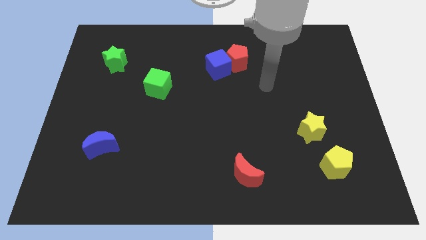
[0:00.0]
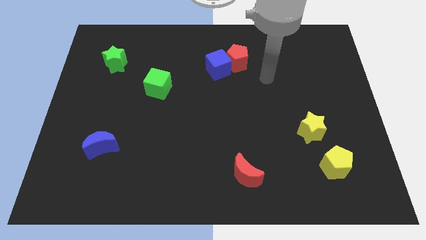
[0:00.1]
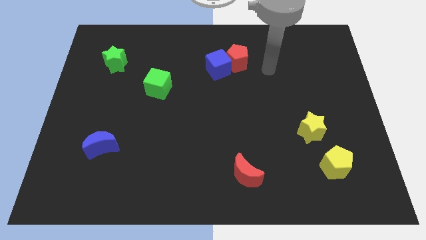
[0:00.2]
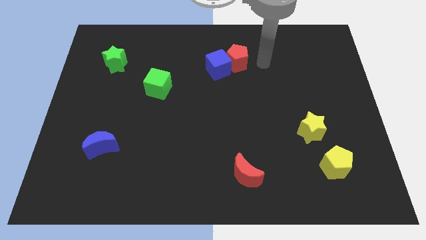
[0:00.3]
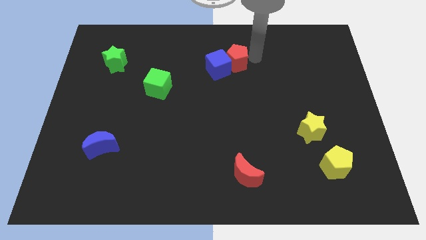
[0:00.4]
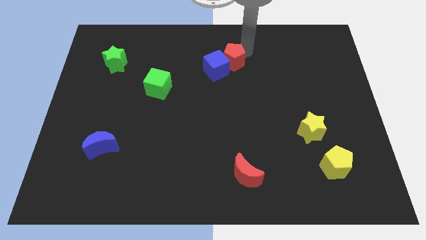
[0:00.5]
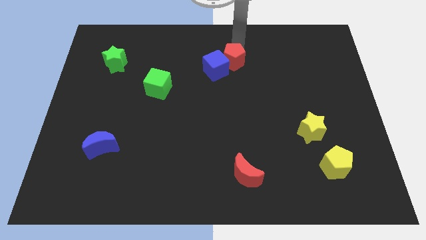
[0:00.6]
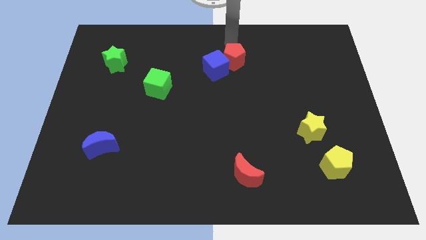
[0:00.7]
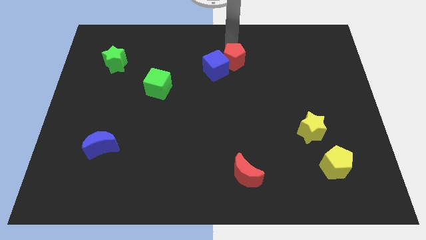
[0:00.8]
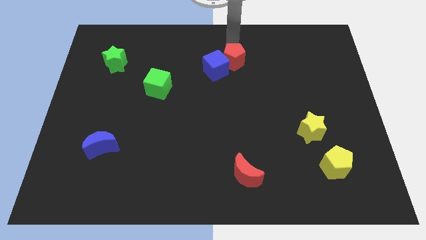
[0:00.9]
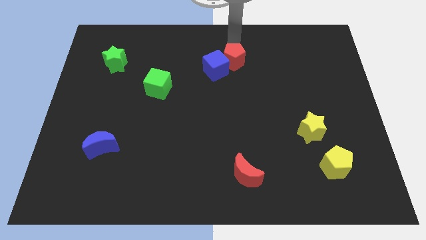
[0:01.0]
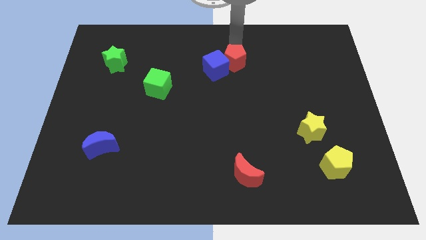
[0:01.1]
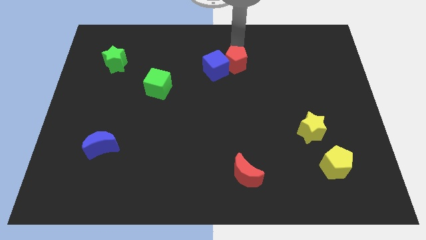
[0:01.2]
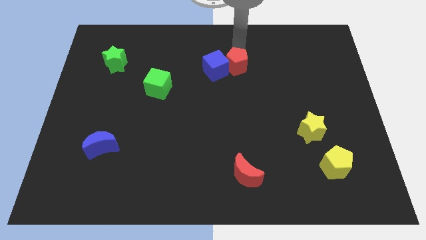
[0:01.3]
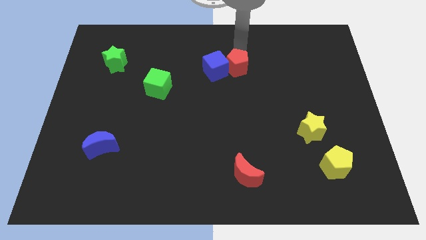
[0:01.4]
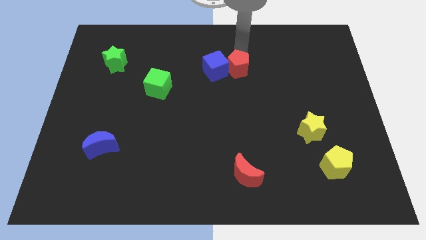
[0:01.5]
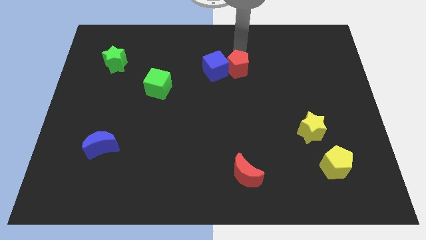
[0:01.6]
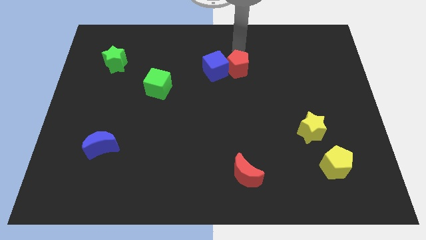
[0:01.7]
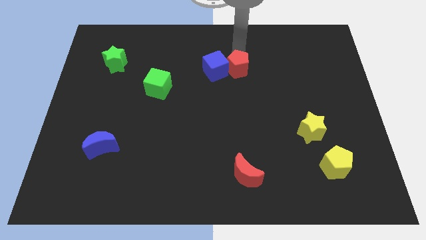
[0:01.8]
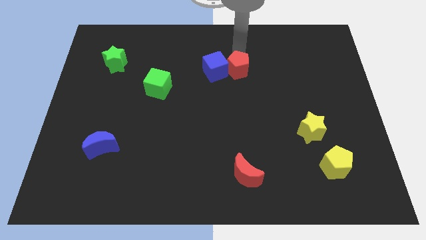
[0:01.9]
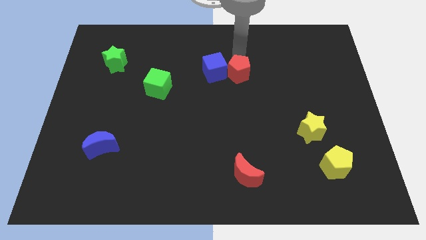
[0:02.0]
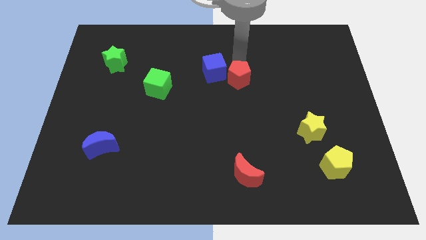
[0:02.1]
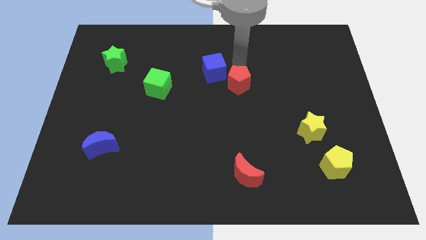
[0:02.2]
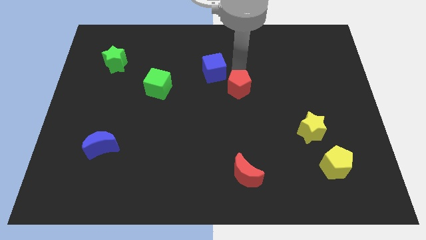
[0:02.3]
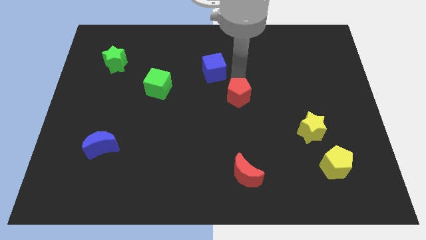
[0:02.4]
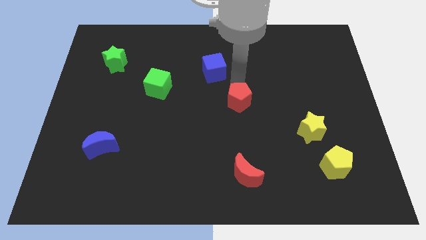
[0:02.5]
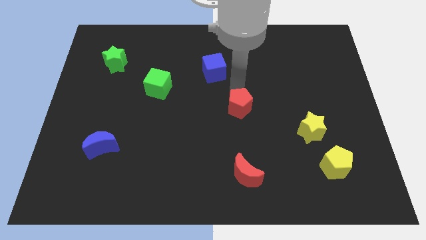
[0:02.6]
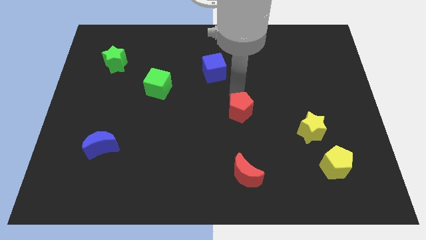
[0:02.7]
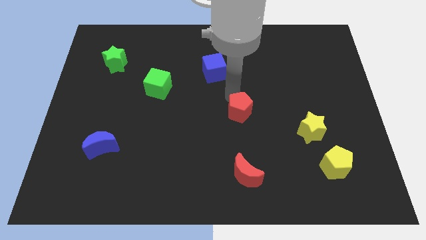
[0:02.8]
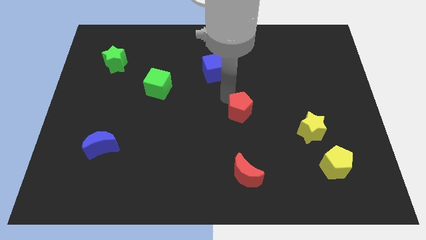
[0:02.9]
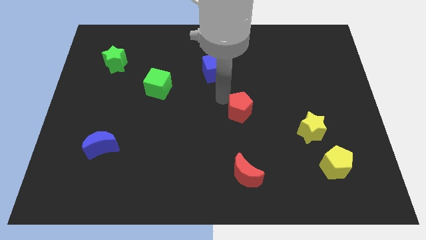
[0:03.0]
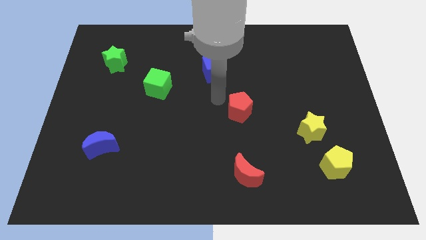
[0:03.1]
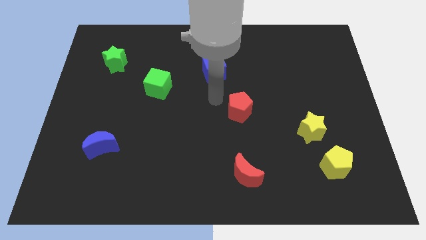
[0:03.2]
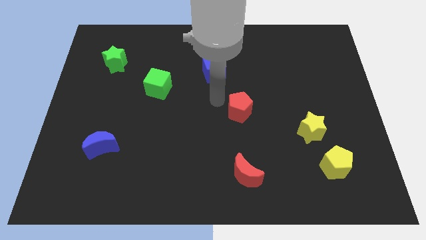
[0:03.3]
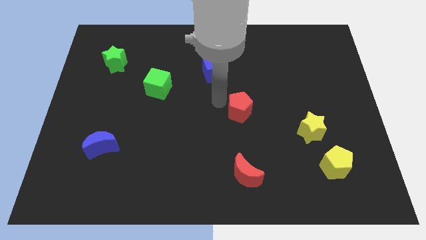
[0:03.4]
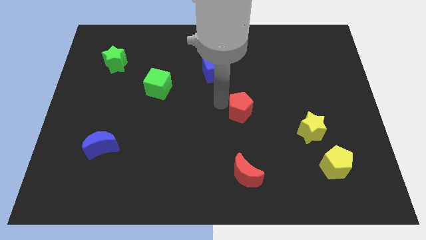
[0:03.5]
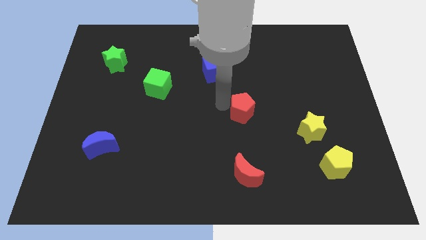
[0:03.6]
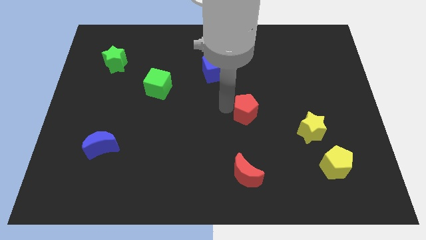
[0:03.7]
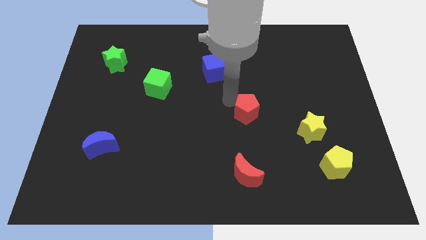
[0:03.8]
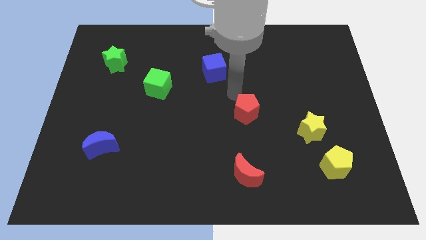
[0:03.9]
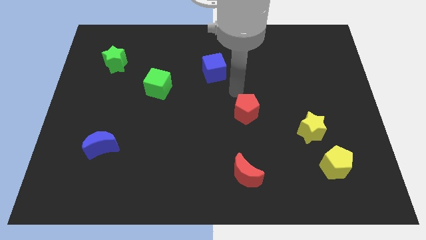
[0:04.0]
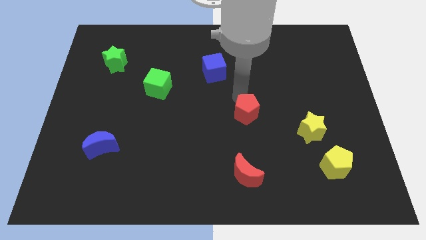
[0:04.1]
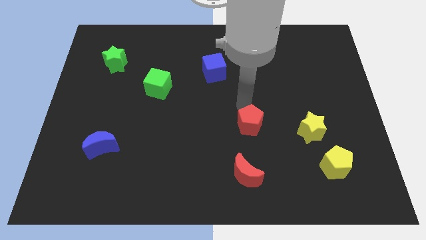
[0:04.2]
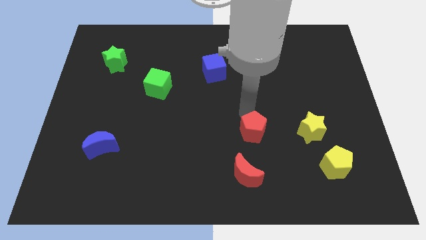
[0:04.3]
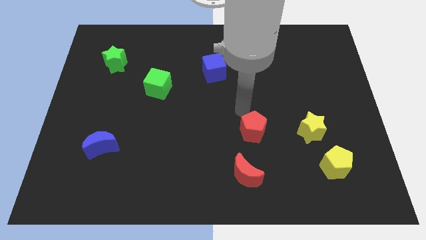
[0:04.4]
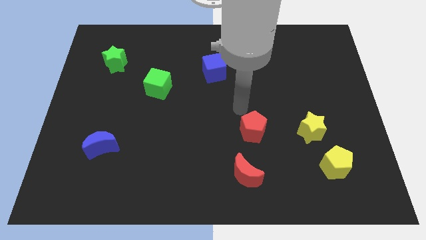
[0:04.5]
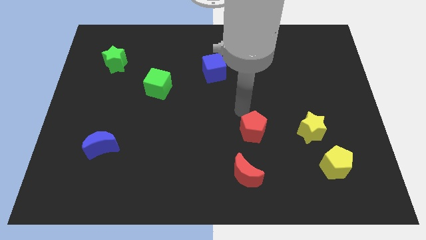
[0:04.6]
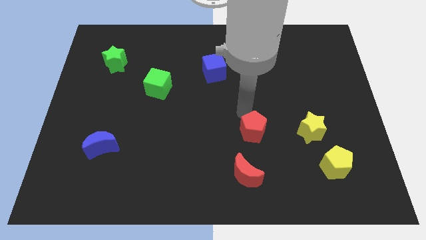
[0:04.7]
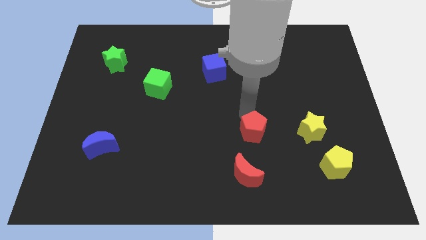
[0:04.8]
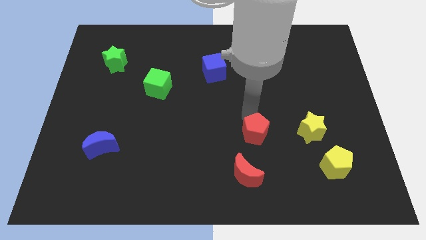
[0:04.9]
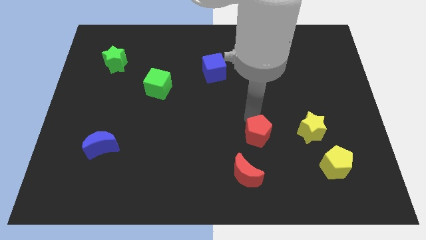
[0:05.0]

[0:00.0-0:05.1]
slide the red pentagon diagonally up and to the right of the red moon

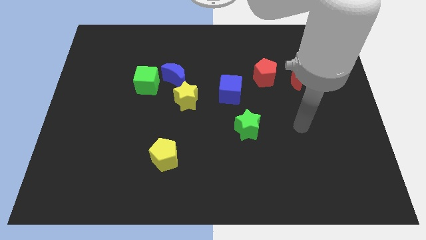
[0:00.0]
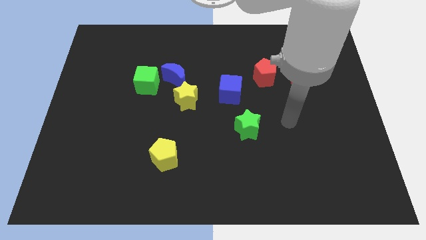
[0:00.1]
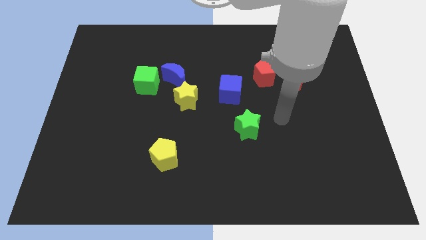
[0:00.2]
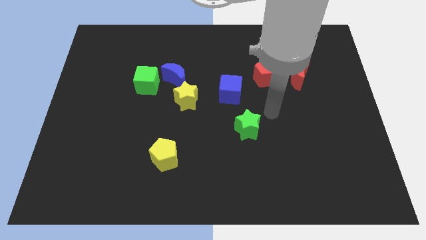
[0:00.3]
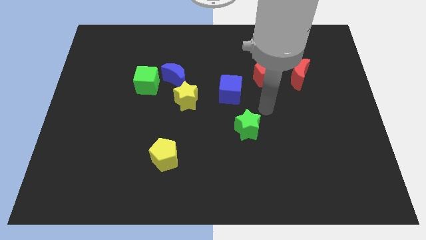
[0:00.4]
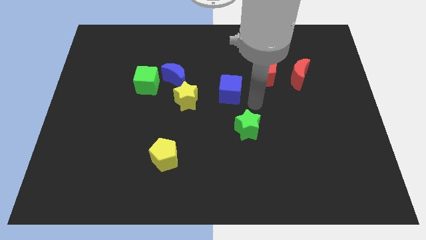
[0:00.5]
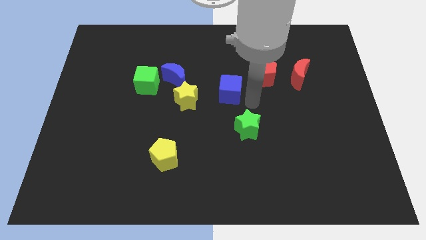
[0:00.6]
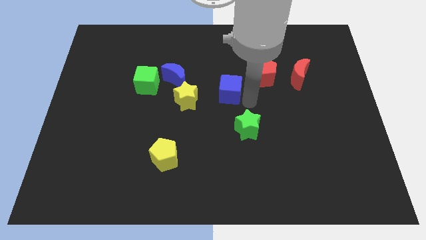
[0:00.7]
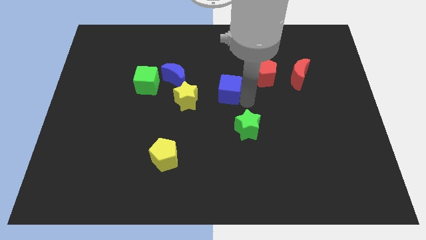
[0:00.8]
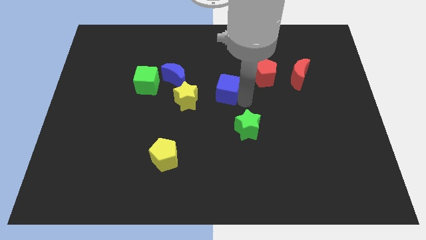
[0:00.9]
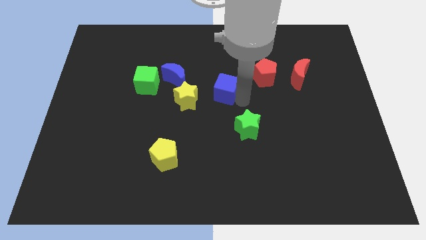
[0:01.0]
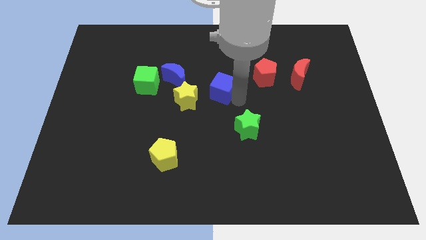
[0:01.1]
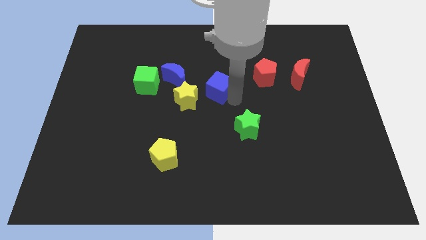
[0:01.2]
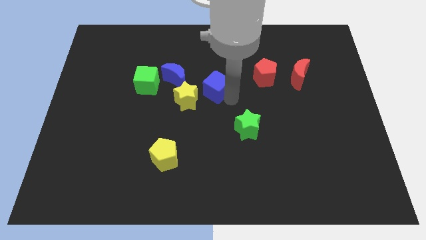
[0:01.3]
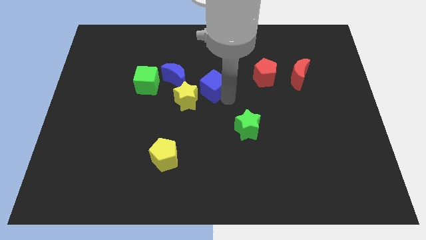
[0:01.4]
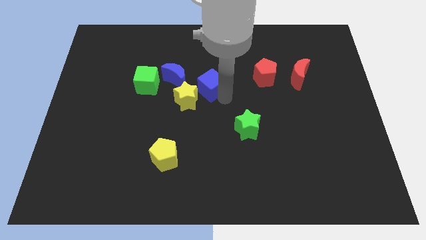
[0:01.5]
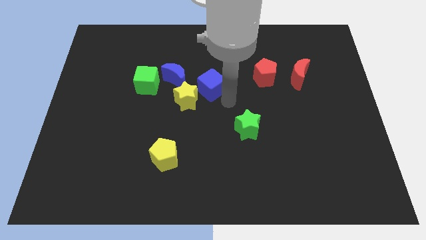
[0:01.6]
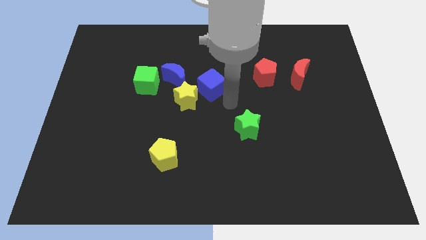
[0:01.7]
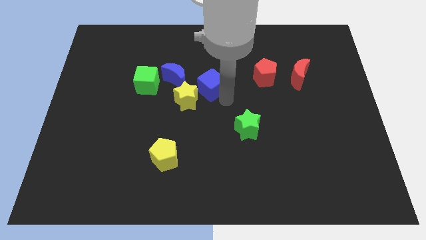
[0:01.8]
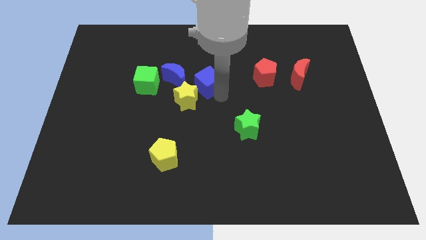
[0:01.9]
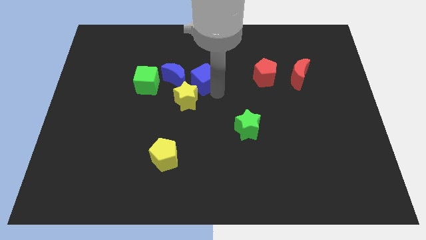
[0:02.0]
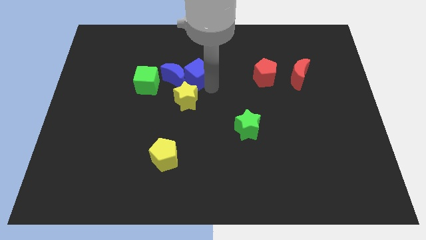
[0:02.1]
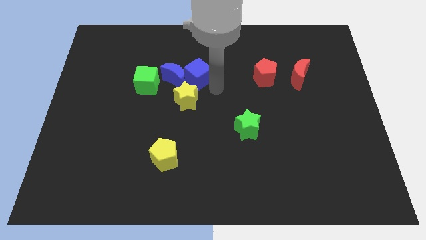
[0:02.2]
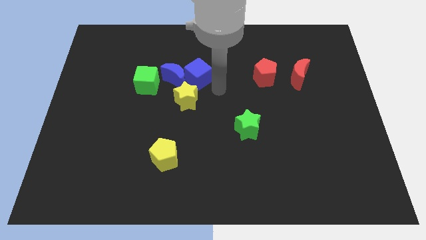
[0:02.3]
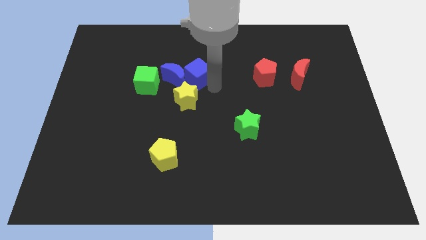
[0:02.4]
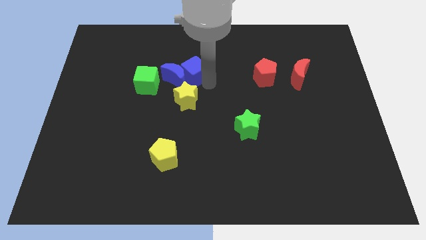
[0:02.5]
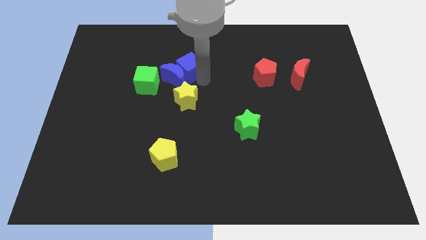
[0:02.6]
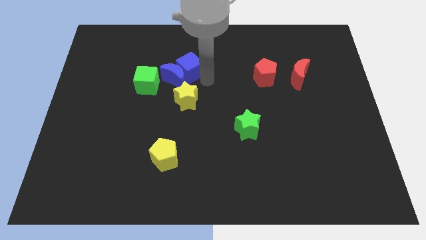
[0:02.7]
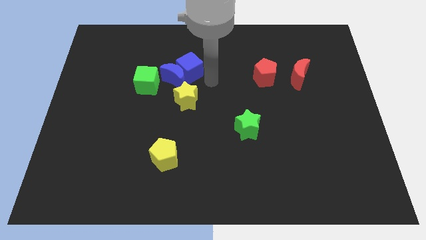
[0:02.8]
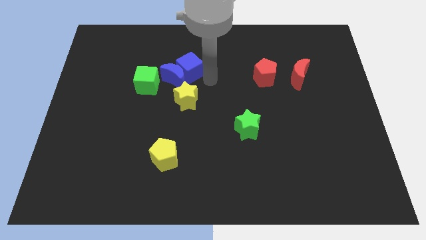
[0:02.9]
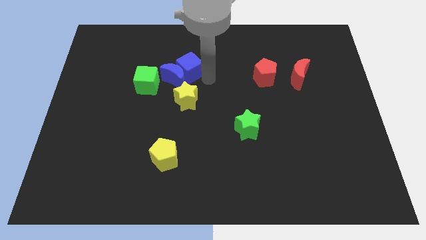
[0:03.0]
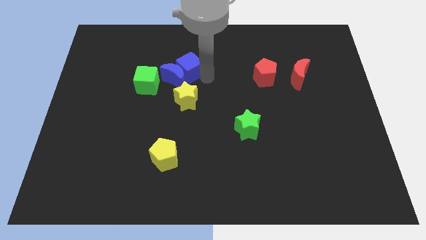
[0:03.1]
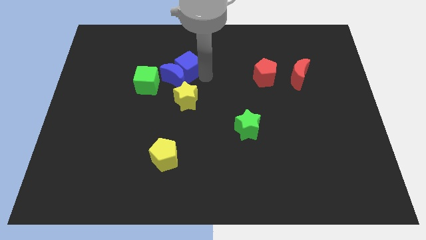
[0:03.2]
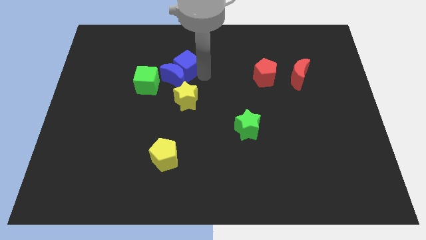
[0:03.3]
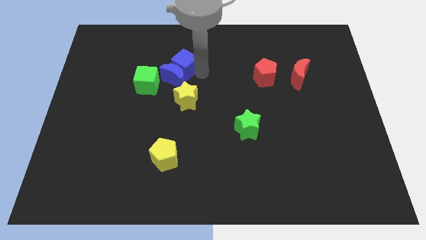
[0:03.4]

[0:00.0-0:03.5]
move the blue cube diagonally up and to the left of the blue moon
